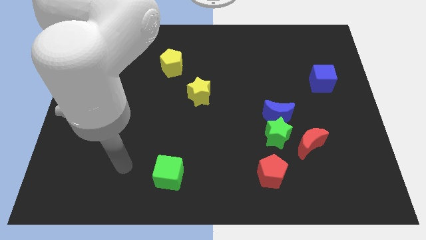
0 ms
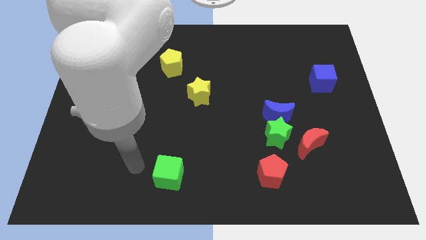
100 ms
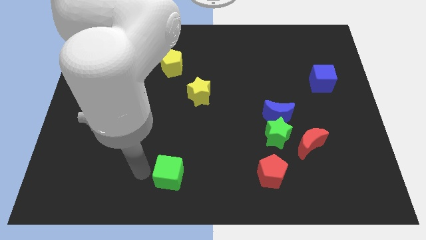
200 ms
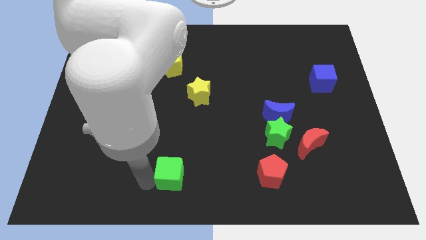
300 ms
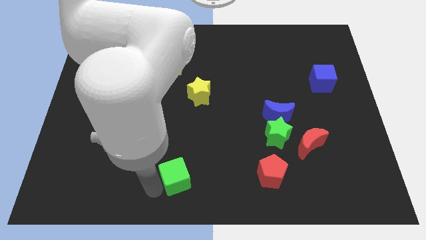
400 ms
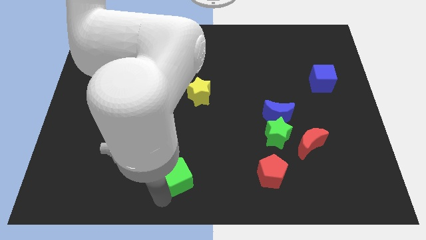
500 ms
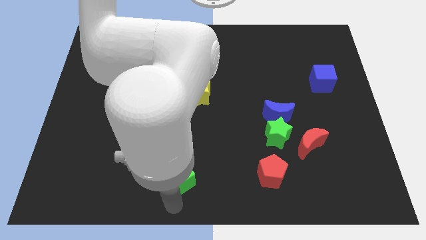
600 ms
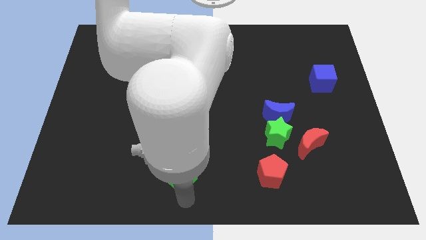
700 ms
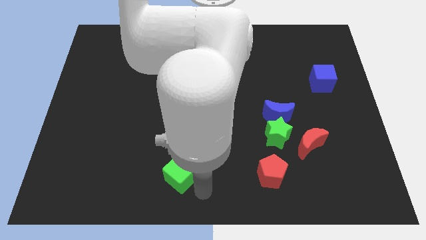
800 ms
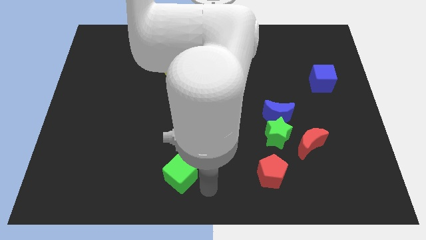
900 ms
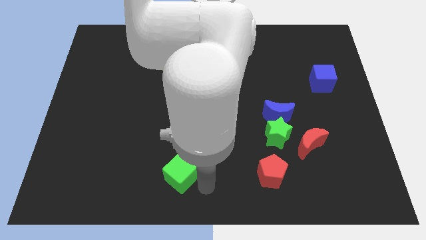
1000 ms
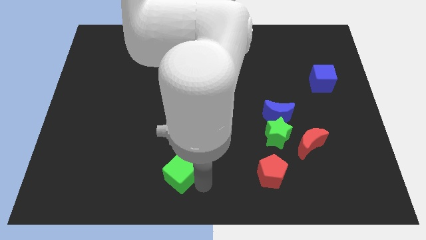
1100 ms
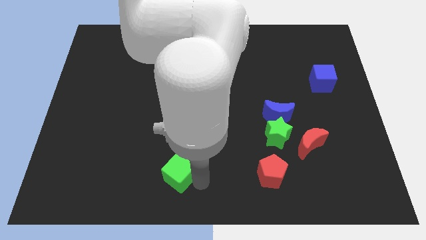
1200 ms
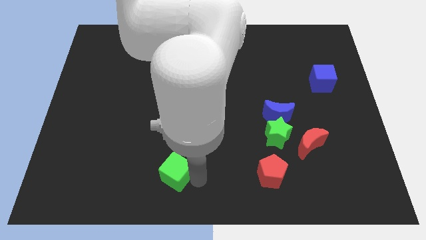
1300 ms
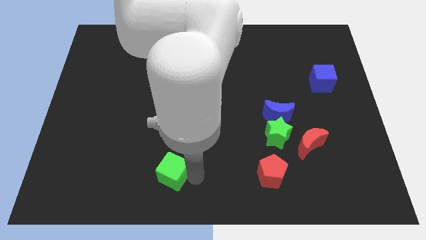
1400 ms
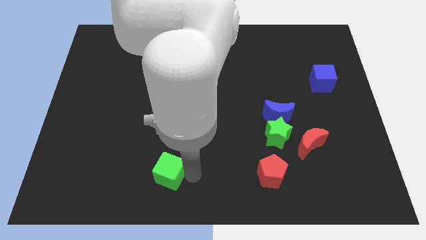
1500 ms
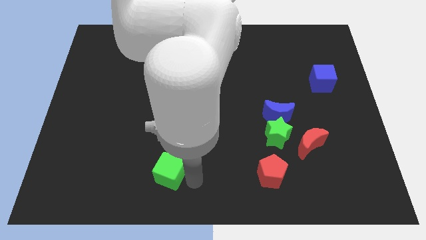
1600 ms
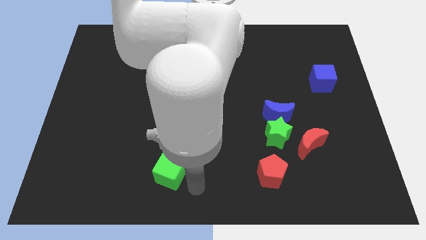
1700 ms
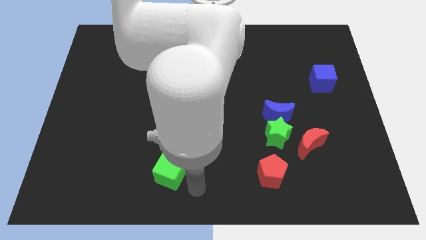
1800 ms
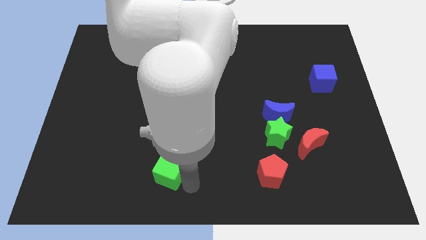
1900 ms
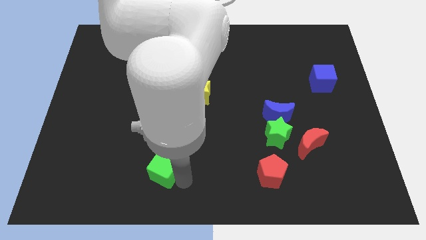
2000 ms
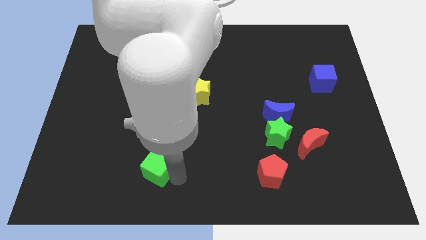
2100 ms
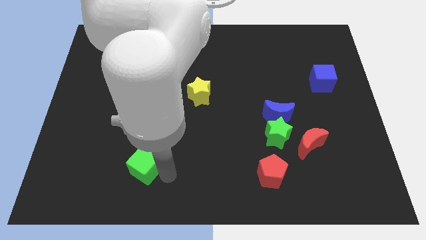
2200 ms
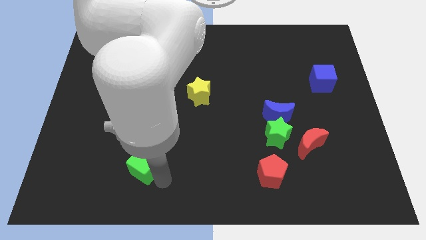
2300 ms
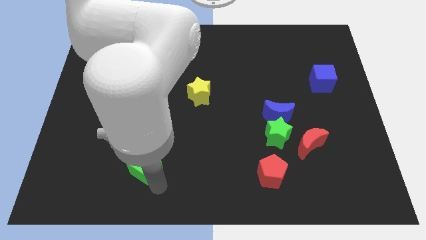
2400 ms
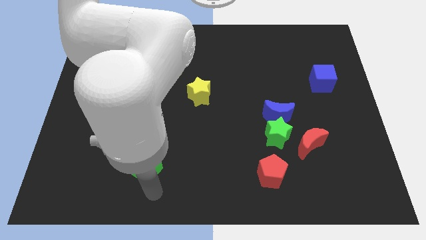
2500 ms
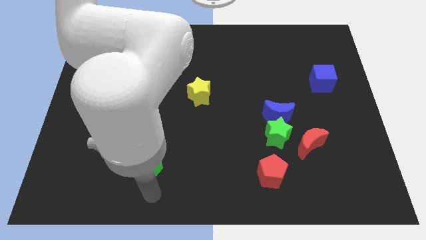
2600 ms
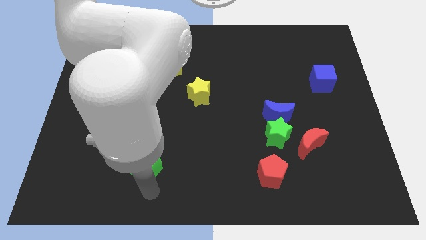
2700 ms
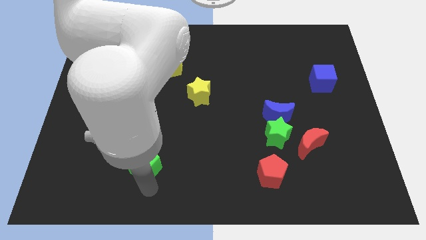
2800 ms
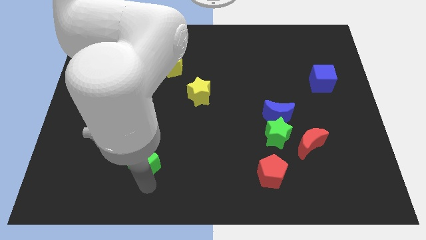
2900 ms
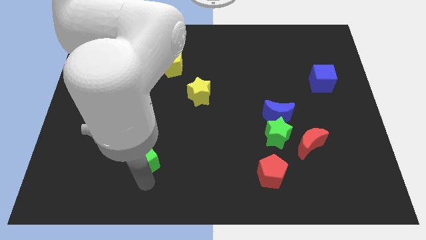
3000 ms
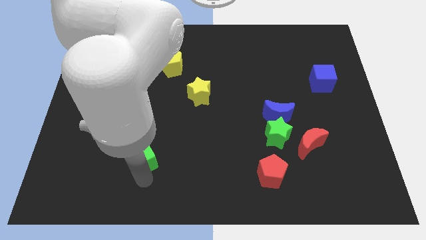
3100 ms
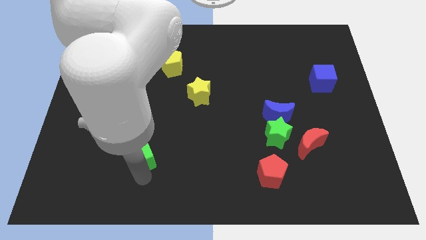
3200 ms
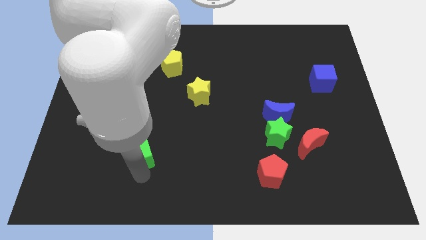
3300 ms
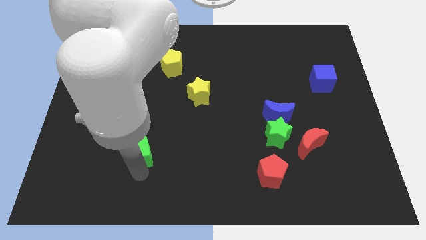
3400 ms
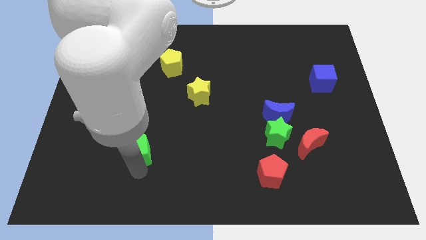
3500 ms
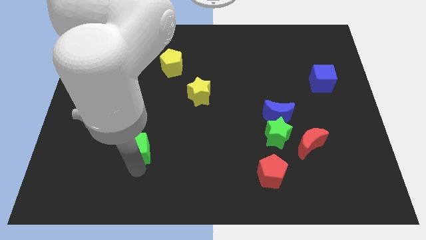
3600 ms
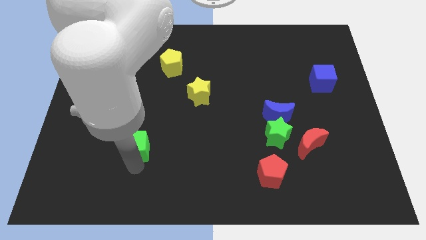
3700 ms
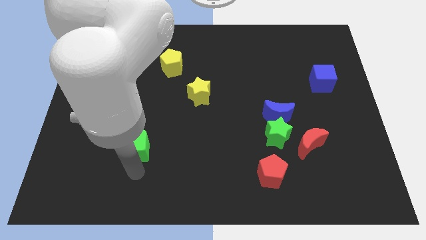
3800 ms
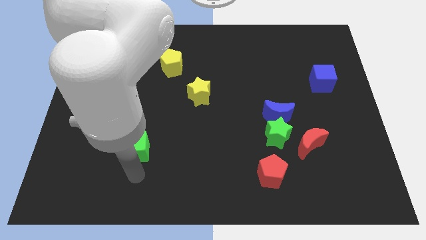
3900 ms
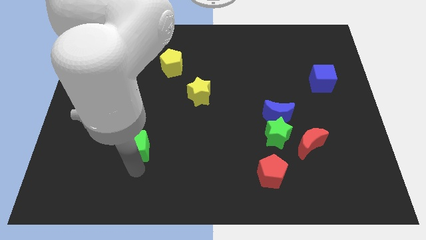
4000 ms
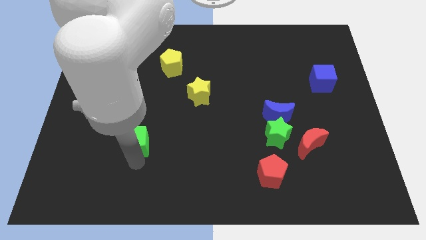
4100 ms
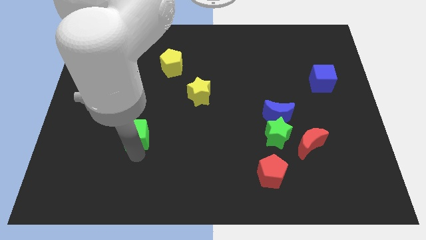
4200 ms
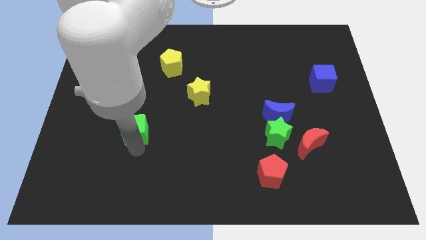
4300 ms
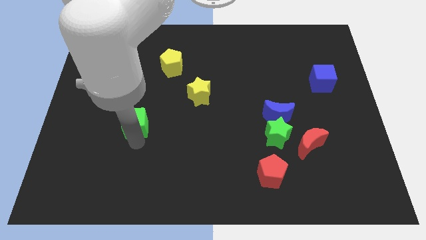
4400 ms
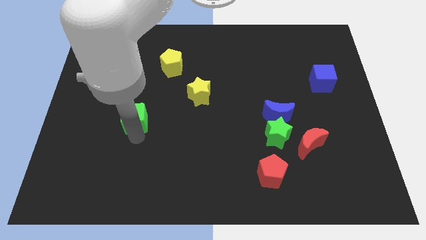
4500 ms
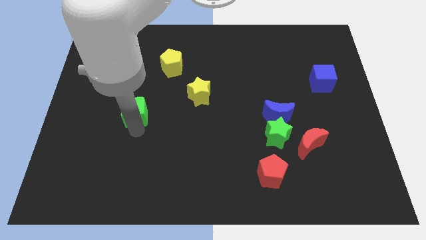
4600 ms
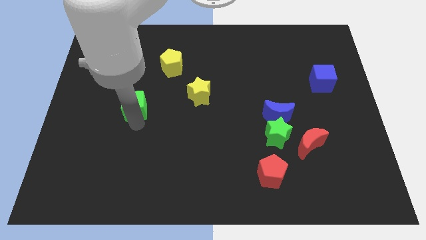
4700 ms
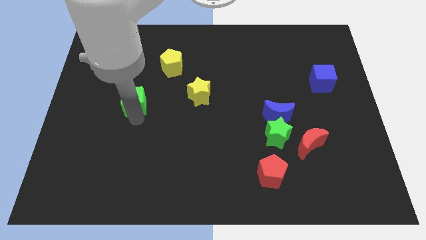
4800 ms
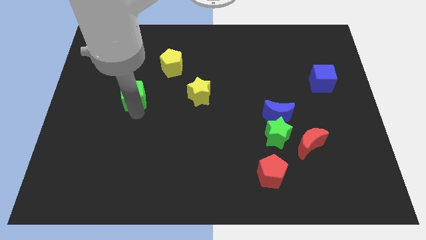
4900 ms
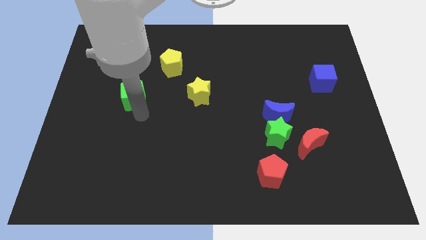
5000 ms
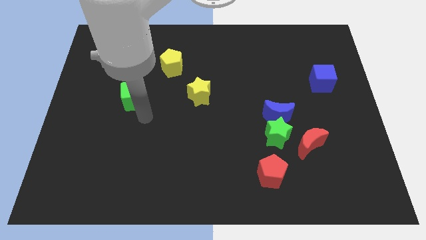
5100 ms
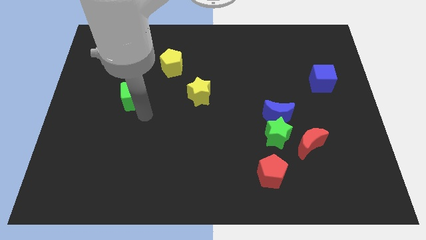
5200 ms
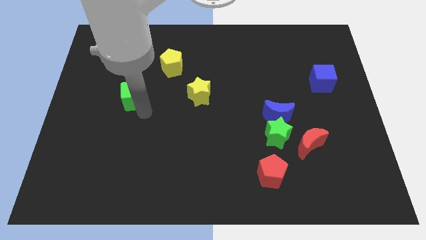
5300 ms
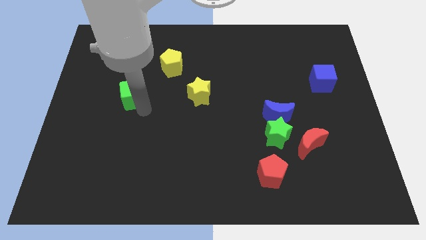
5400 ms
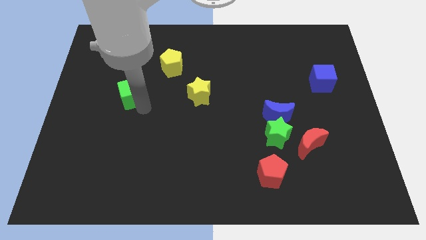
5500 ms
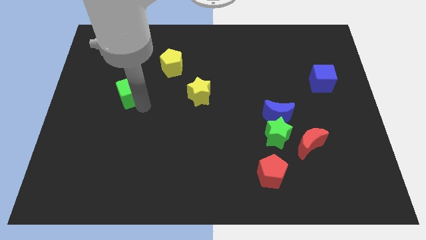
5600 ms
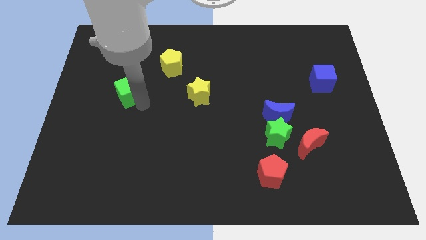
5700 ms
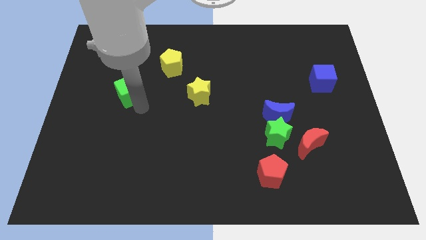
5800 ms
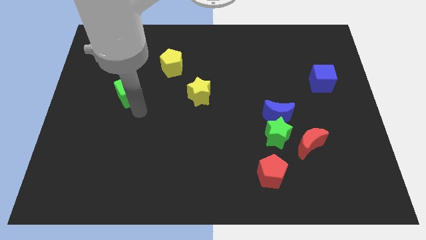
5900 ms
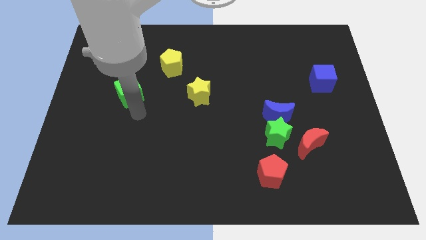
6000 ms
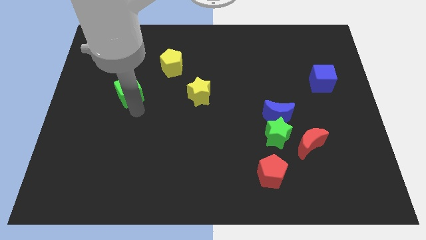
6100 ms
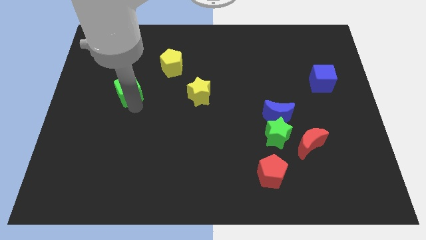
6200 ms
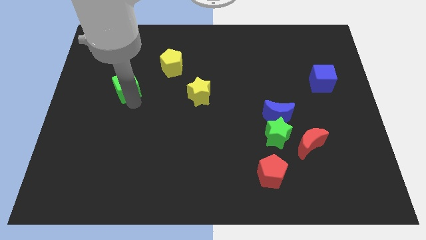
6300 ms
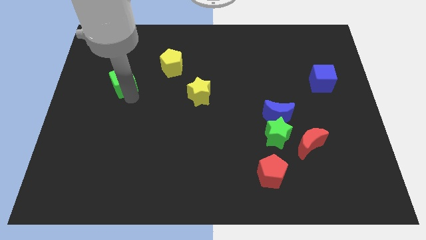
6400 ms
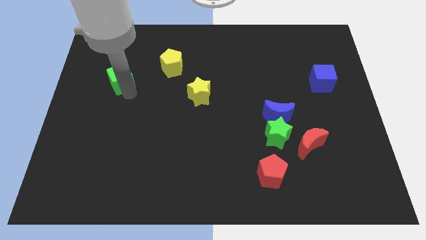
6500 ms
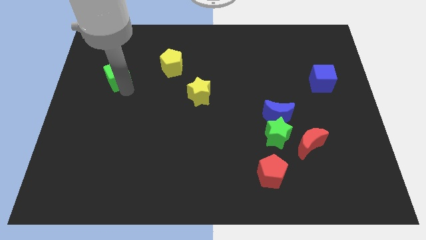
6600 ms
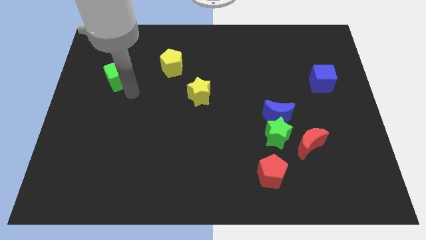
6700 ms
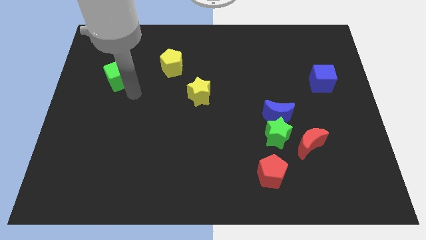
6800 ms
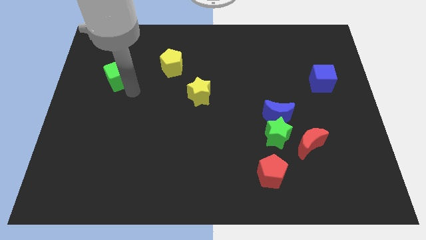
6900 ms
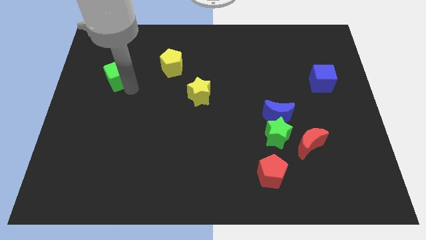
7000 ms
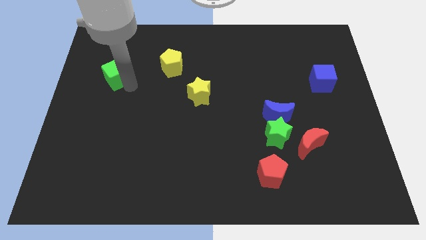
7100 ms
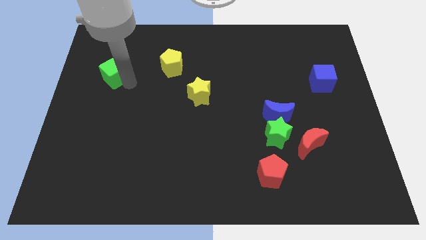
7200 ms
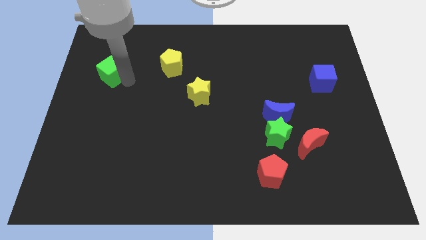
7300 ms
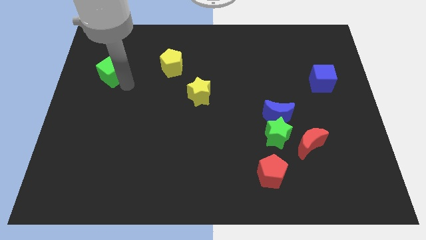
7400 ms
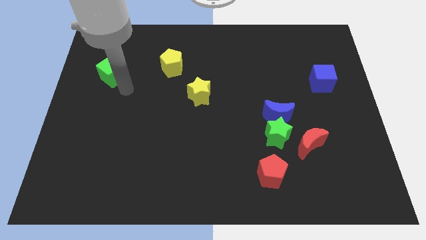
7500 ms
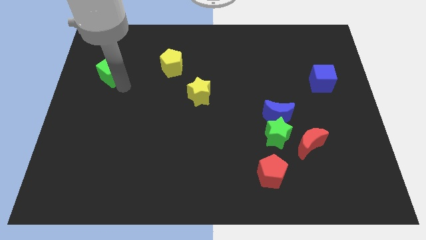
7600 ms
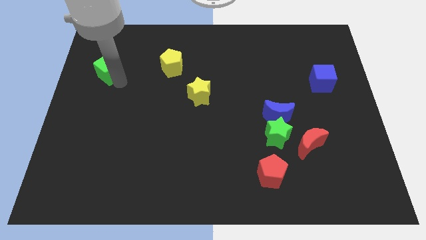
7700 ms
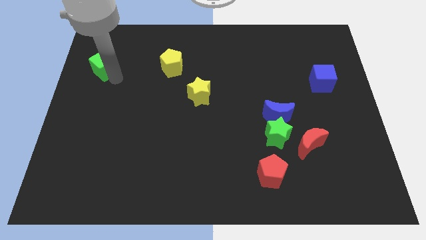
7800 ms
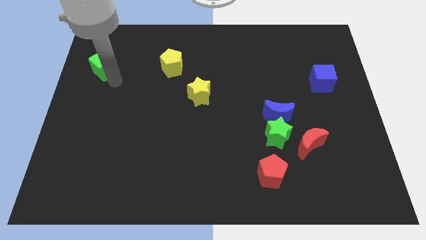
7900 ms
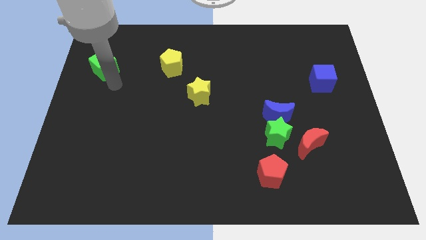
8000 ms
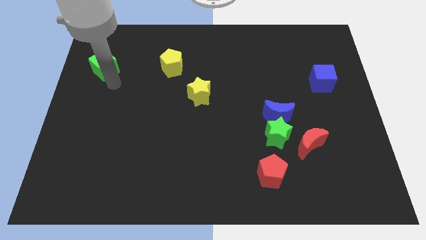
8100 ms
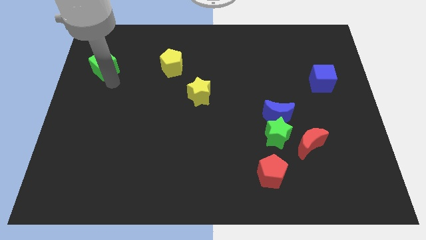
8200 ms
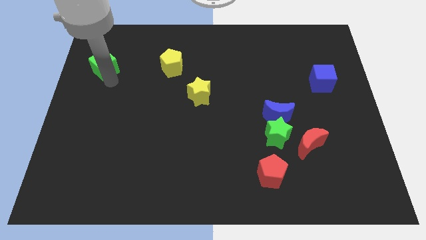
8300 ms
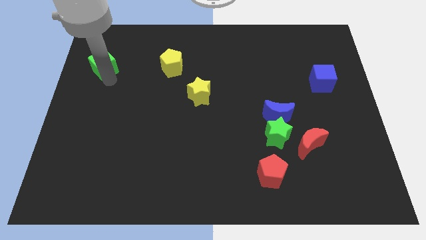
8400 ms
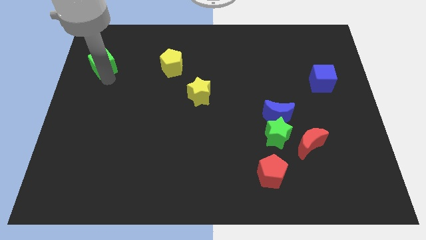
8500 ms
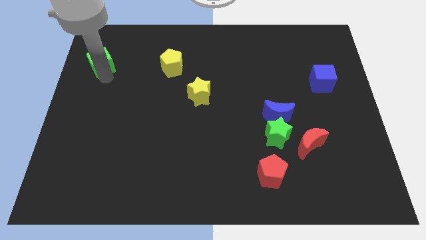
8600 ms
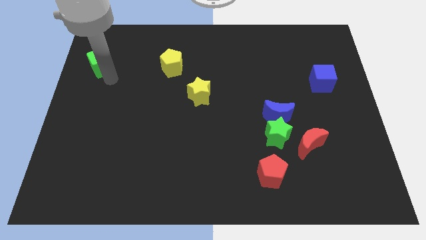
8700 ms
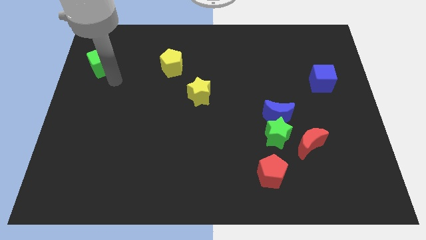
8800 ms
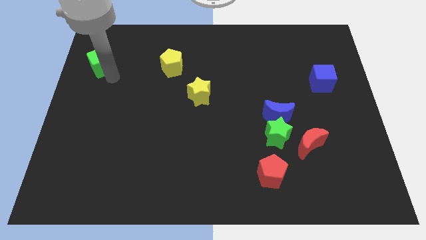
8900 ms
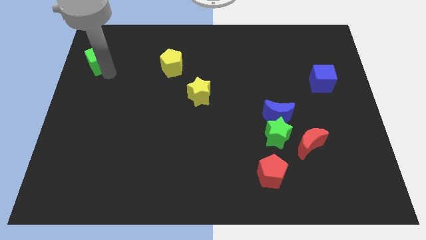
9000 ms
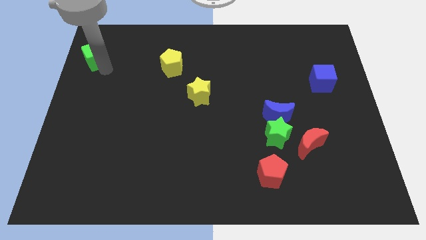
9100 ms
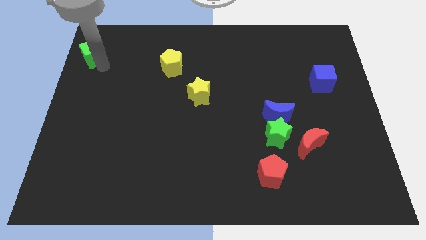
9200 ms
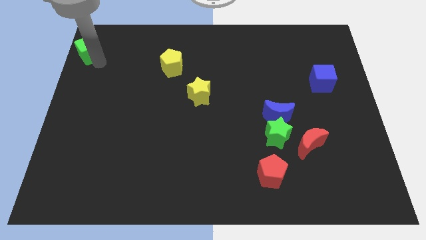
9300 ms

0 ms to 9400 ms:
push the green cube to the top left of the board
